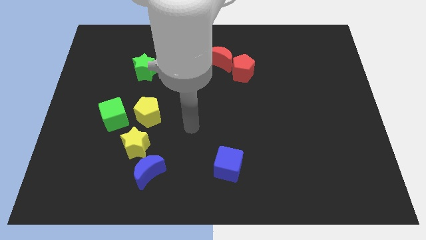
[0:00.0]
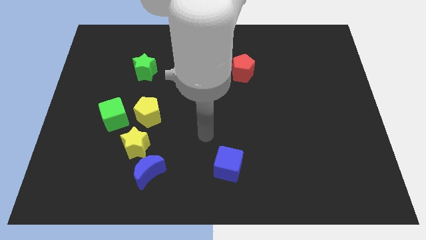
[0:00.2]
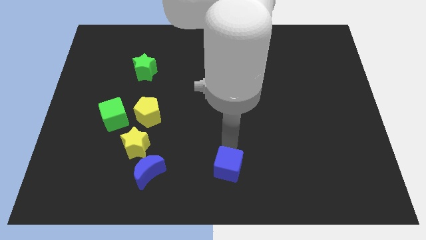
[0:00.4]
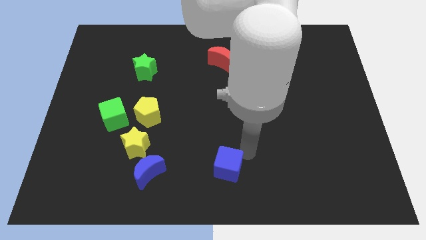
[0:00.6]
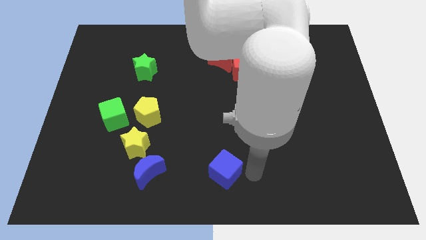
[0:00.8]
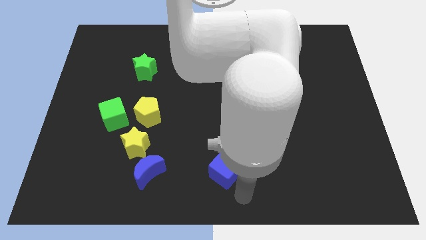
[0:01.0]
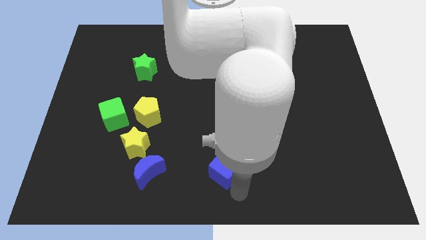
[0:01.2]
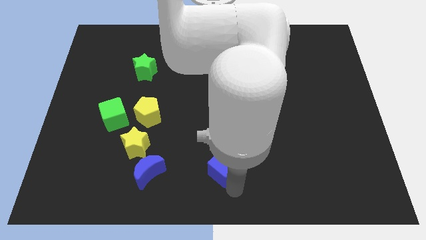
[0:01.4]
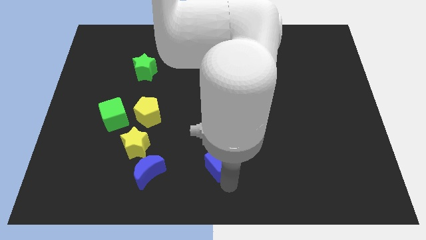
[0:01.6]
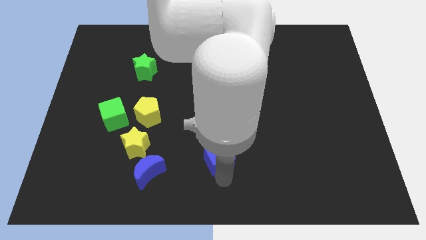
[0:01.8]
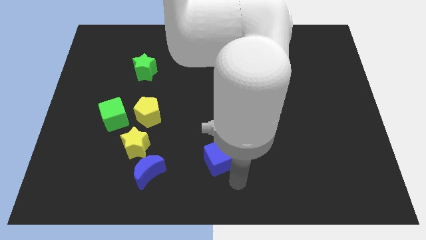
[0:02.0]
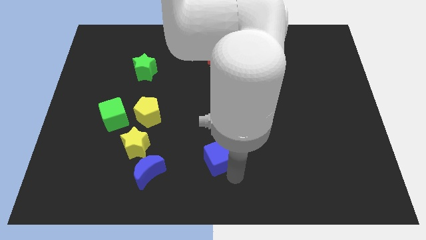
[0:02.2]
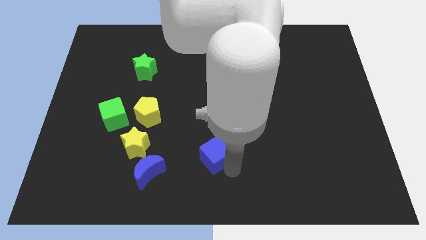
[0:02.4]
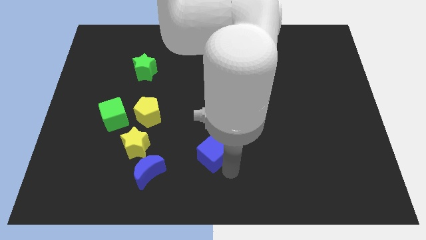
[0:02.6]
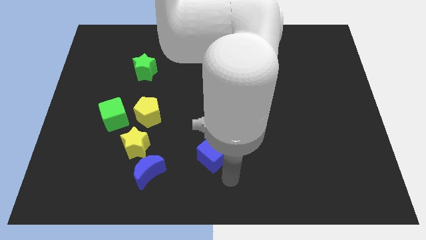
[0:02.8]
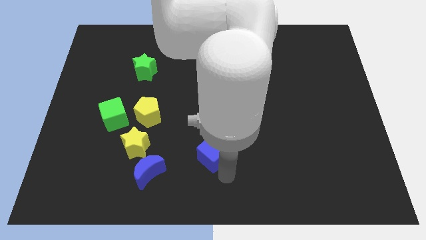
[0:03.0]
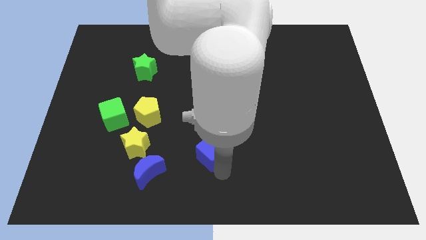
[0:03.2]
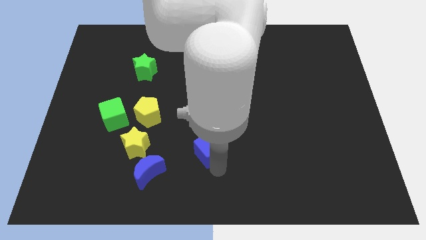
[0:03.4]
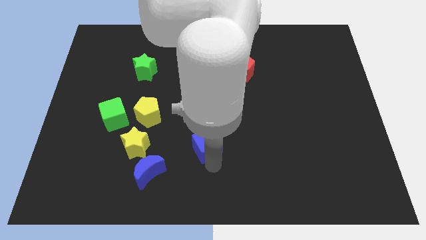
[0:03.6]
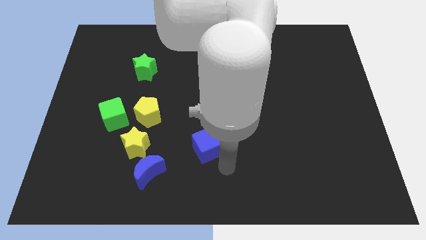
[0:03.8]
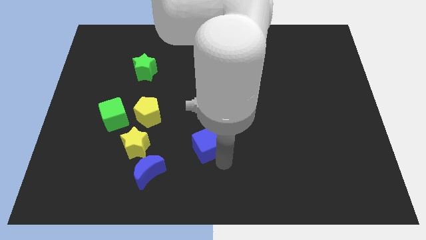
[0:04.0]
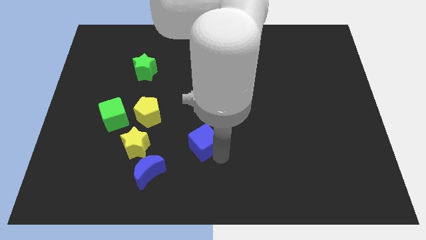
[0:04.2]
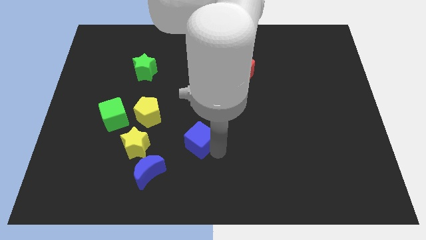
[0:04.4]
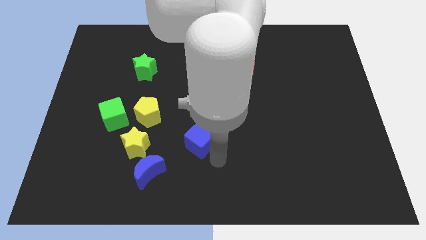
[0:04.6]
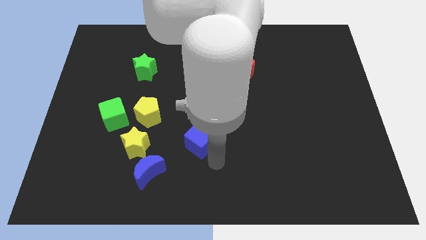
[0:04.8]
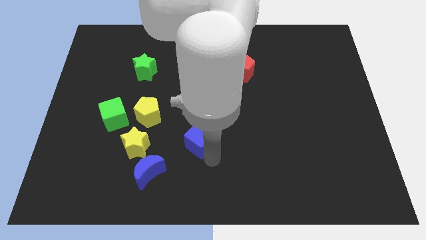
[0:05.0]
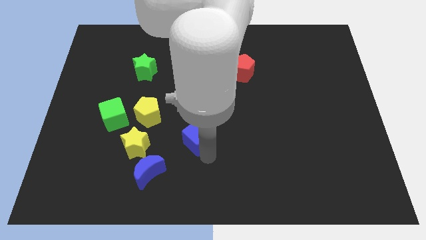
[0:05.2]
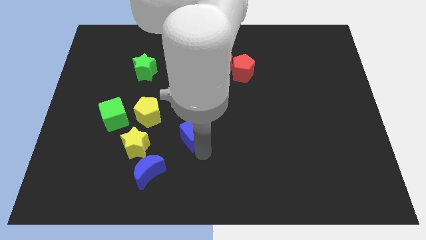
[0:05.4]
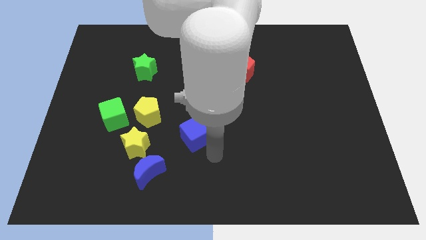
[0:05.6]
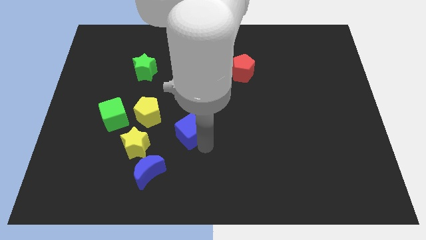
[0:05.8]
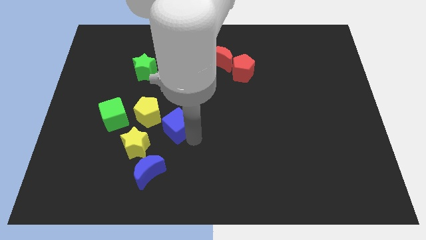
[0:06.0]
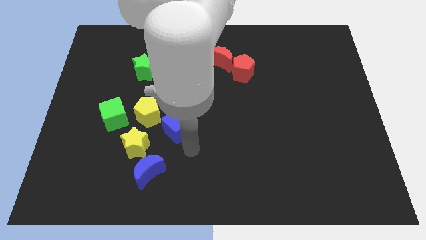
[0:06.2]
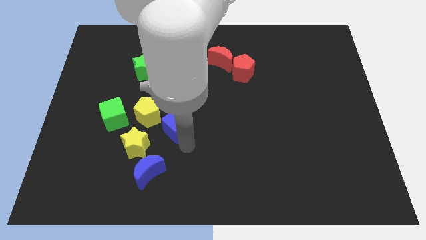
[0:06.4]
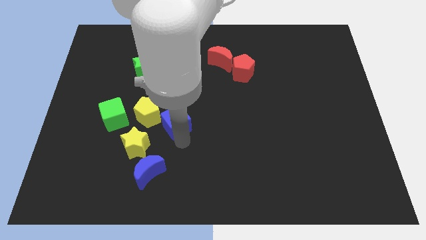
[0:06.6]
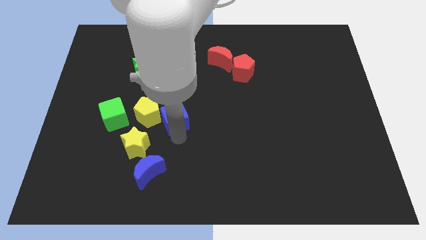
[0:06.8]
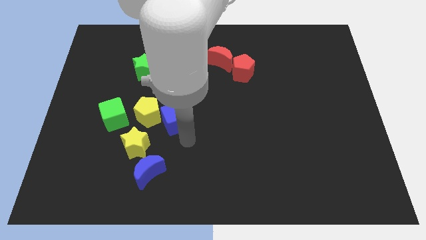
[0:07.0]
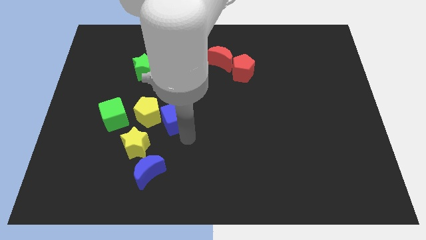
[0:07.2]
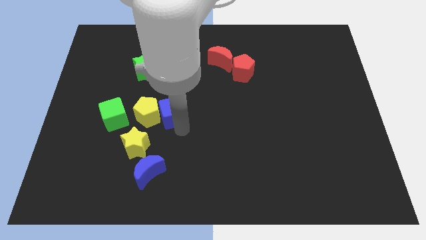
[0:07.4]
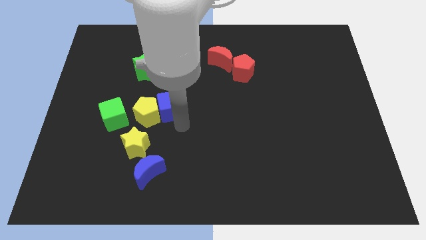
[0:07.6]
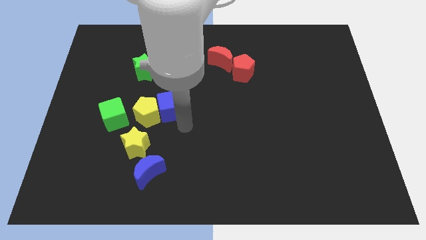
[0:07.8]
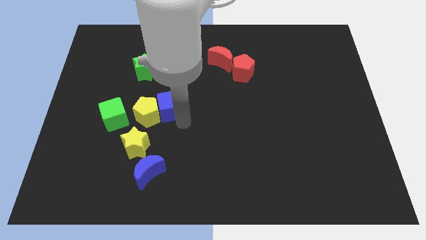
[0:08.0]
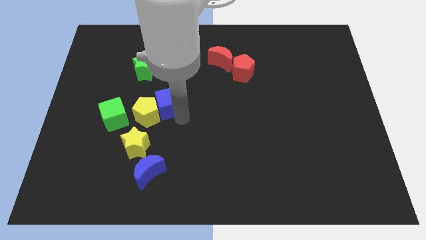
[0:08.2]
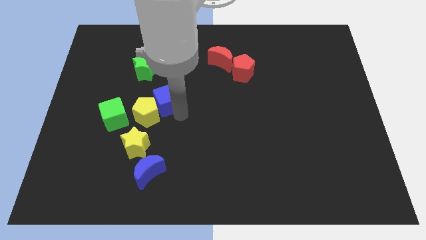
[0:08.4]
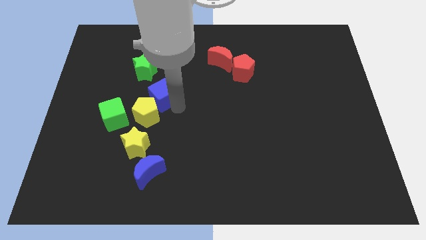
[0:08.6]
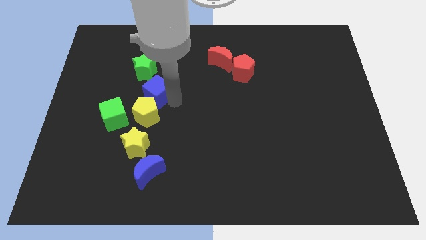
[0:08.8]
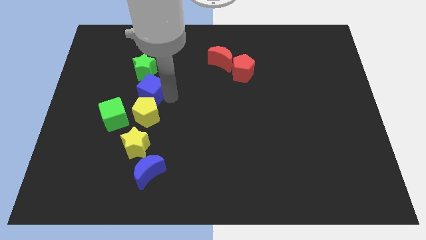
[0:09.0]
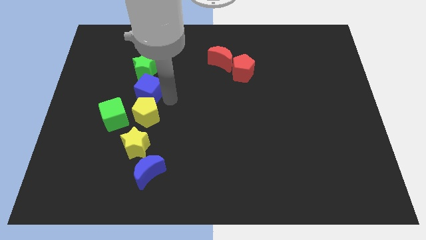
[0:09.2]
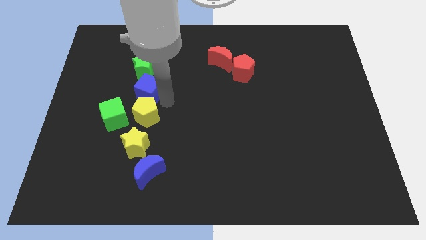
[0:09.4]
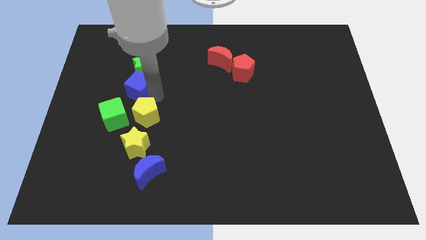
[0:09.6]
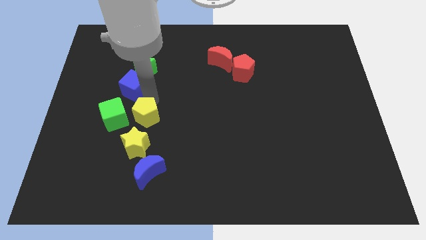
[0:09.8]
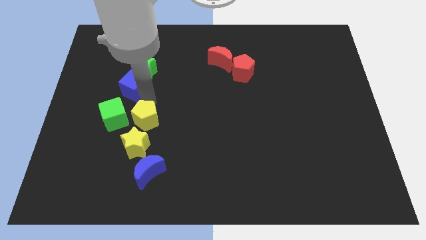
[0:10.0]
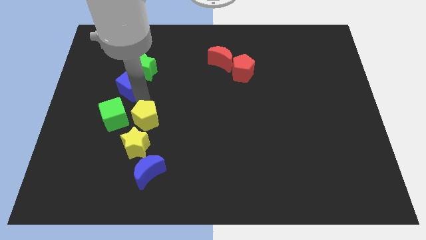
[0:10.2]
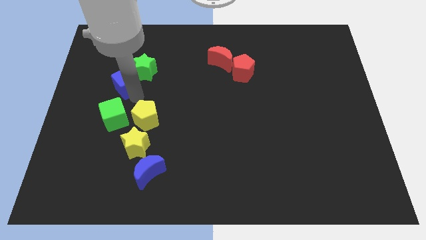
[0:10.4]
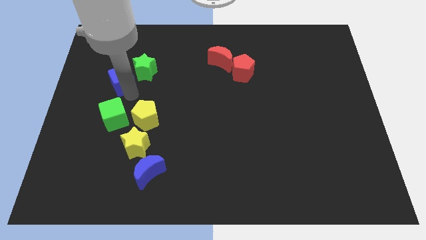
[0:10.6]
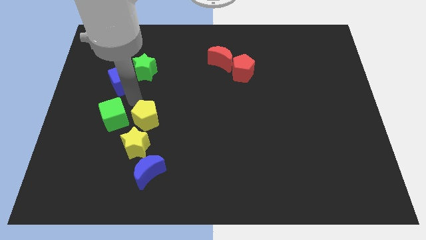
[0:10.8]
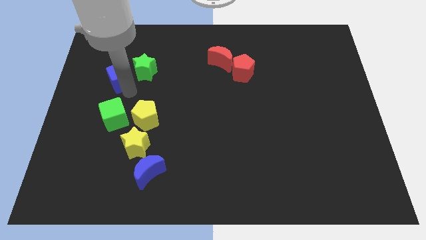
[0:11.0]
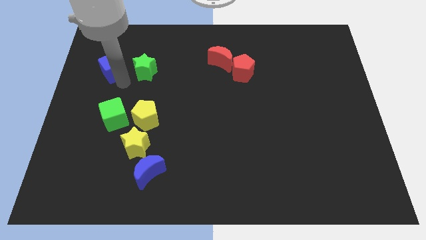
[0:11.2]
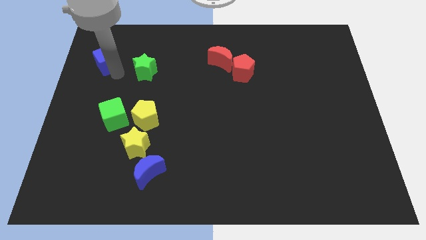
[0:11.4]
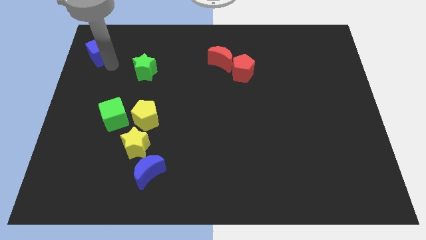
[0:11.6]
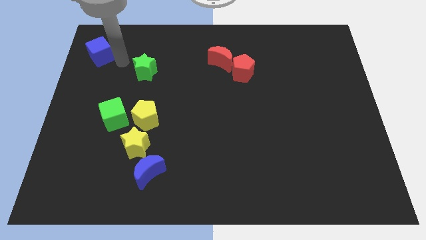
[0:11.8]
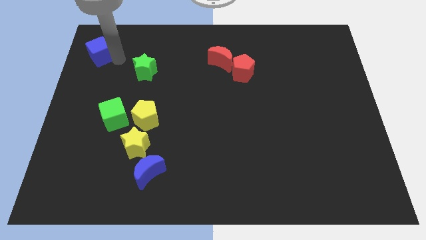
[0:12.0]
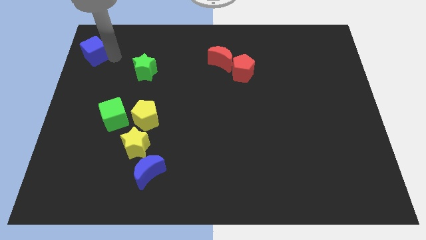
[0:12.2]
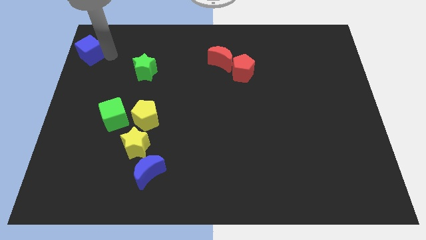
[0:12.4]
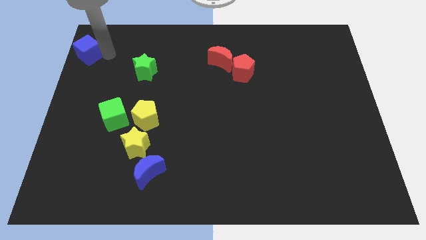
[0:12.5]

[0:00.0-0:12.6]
slide the blue cube to the top left corner
